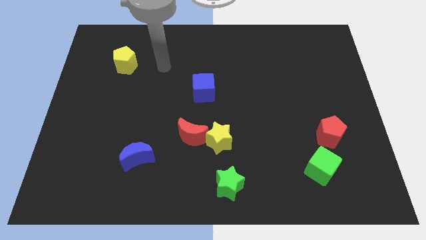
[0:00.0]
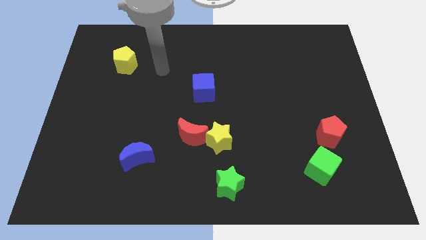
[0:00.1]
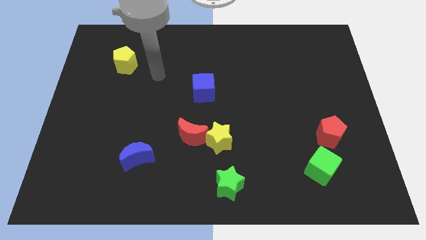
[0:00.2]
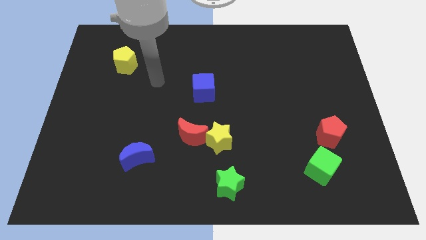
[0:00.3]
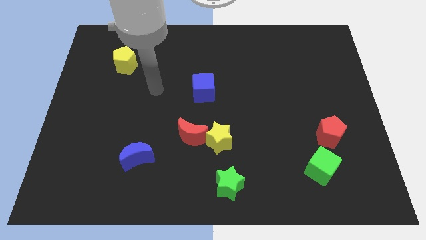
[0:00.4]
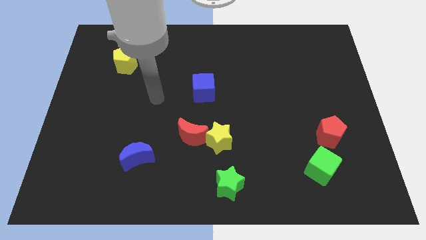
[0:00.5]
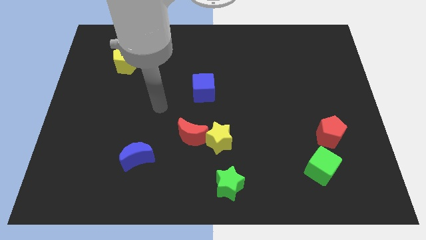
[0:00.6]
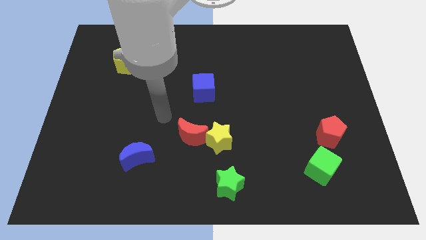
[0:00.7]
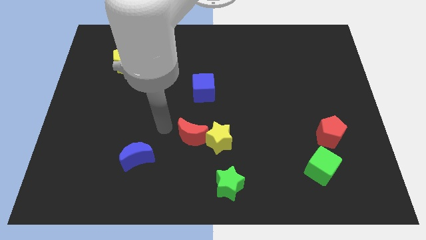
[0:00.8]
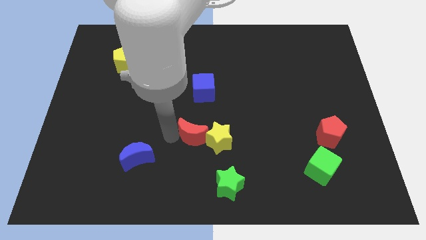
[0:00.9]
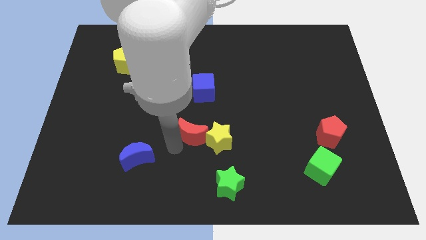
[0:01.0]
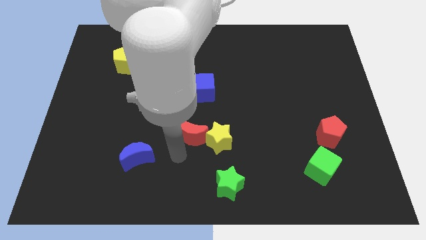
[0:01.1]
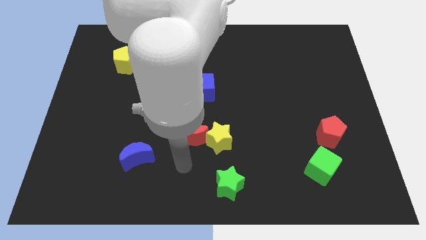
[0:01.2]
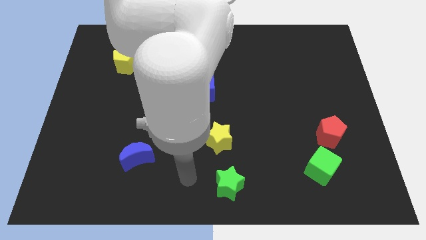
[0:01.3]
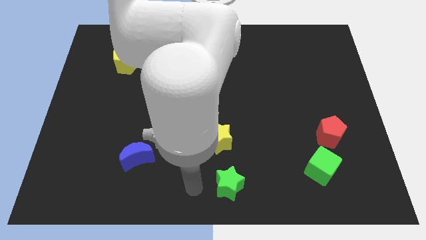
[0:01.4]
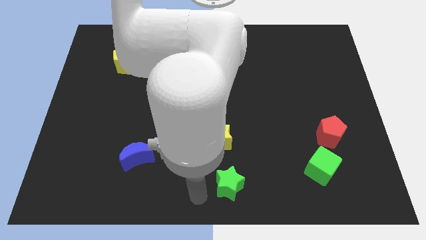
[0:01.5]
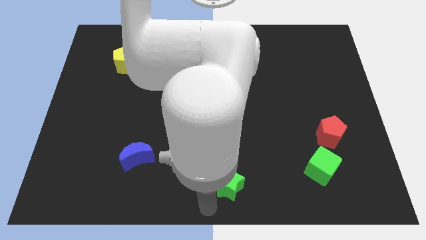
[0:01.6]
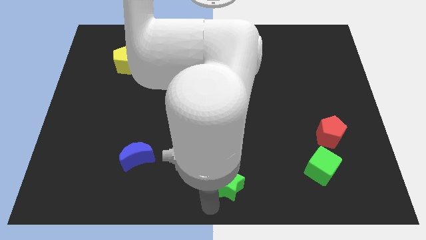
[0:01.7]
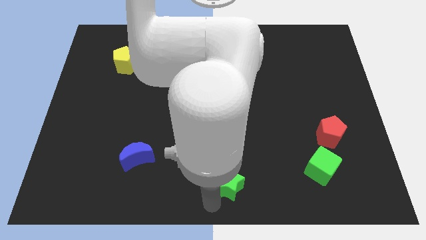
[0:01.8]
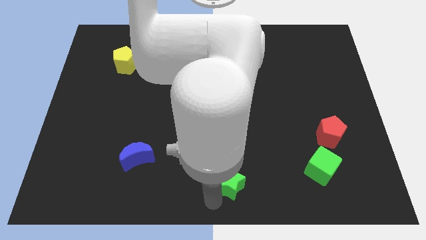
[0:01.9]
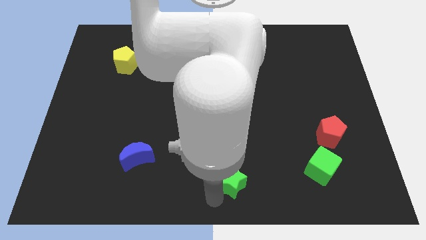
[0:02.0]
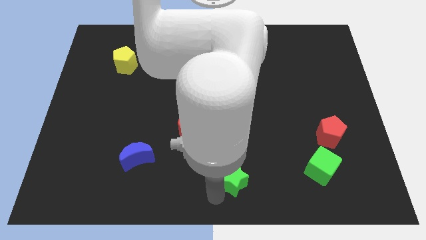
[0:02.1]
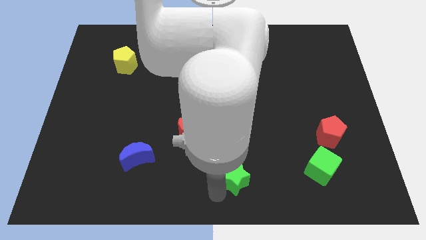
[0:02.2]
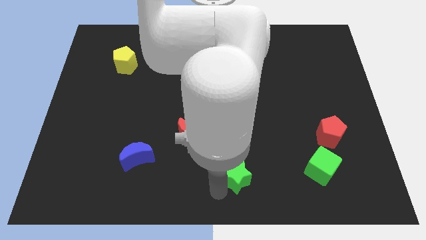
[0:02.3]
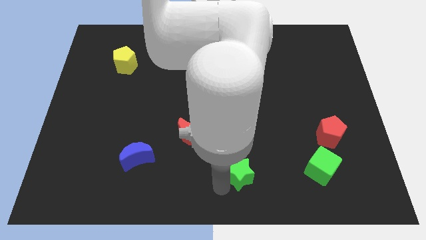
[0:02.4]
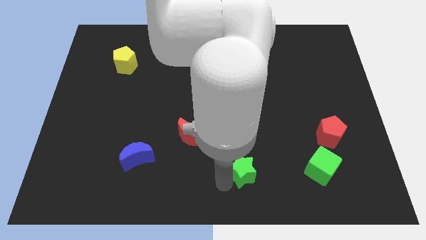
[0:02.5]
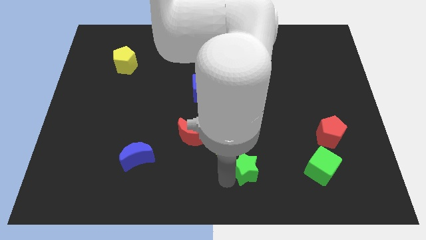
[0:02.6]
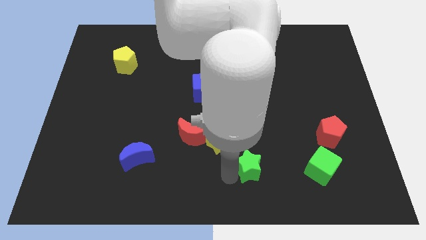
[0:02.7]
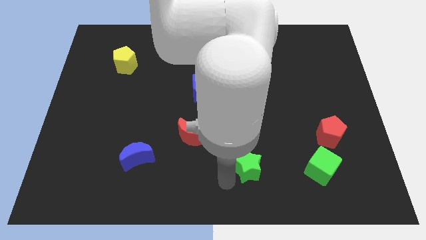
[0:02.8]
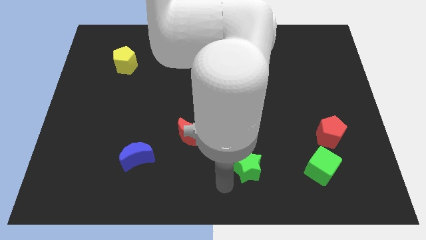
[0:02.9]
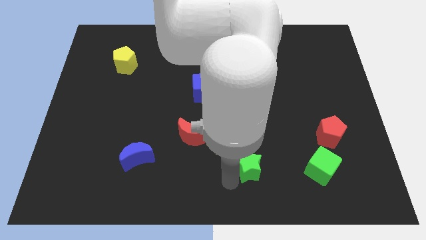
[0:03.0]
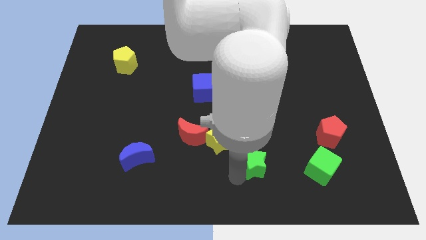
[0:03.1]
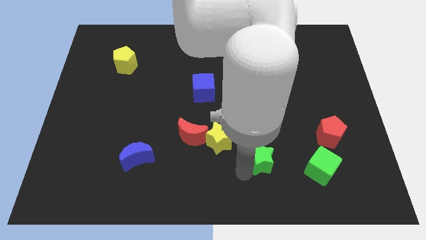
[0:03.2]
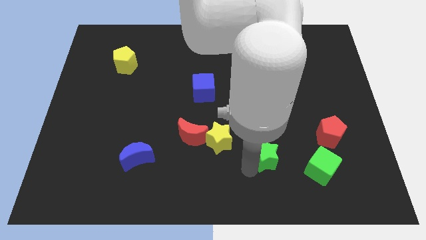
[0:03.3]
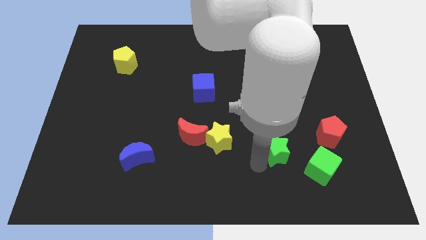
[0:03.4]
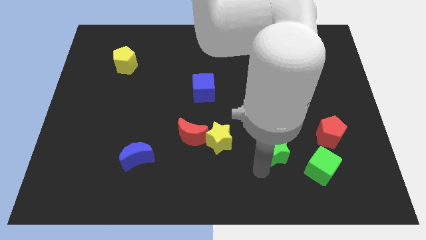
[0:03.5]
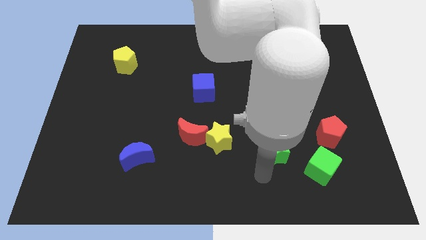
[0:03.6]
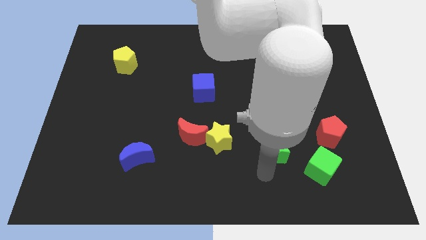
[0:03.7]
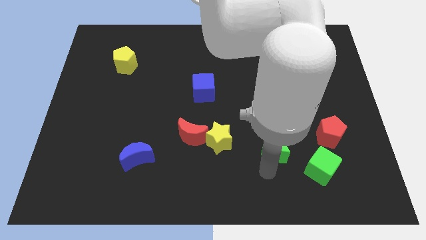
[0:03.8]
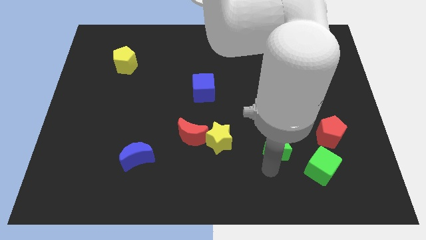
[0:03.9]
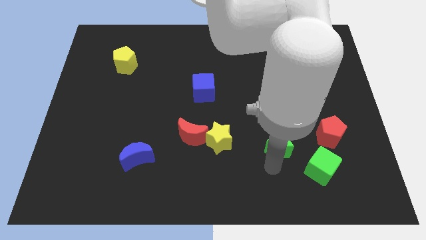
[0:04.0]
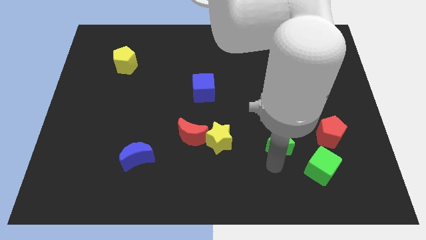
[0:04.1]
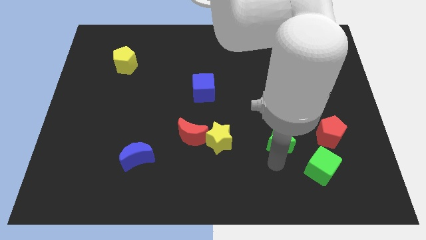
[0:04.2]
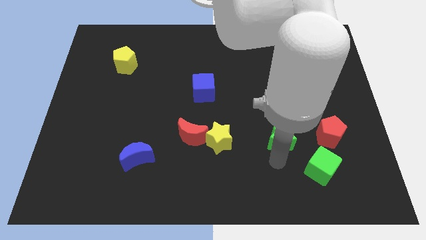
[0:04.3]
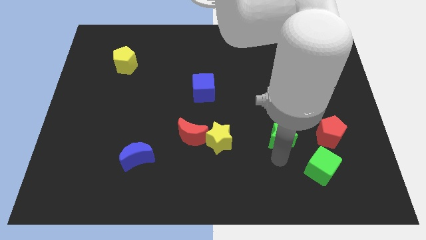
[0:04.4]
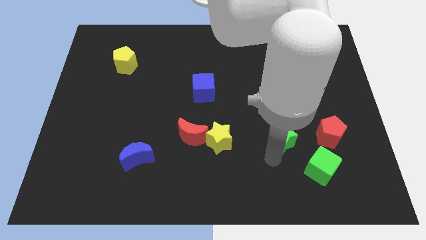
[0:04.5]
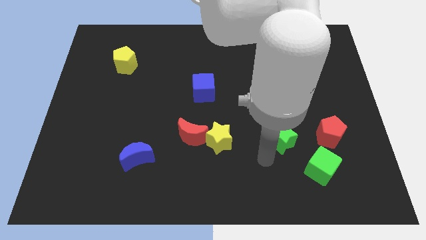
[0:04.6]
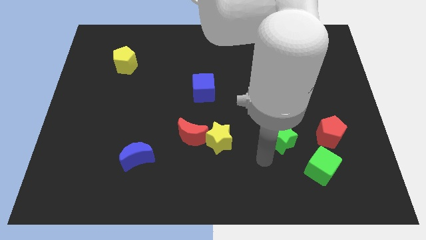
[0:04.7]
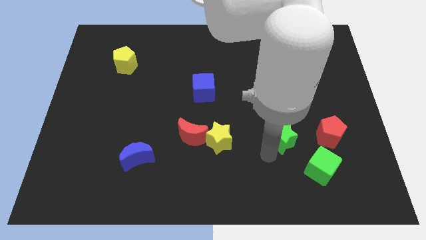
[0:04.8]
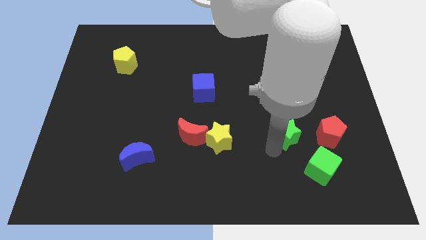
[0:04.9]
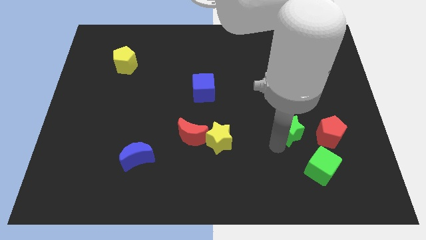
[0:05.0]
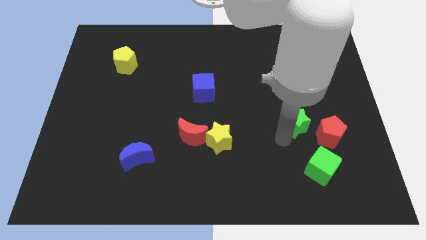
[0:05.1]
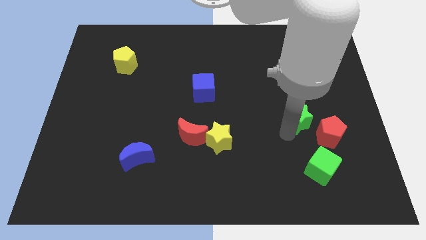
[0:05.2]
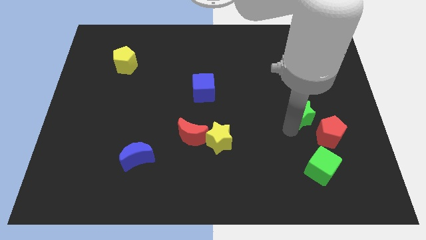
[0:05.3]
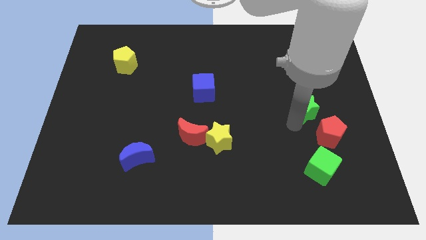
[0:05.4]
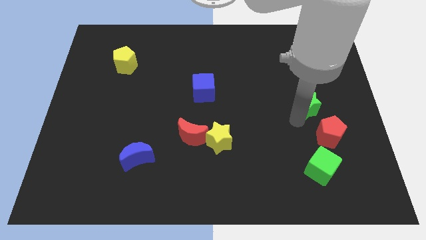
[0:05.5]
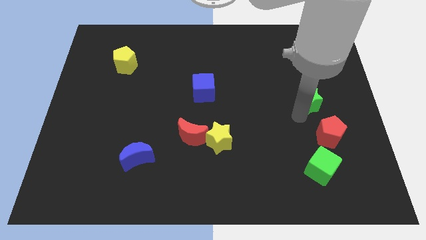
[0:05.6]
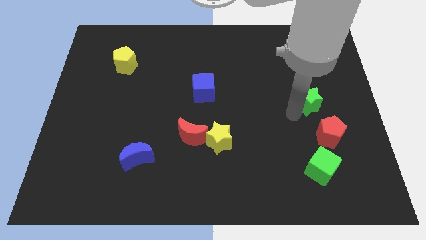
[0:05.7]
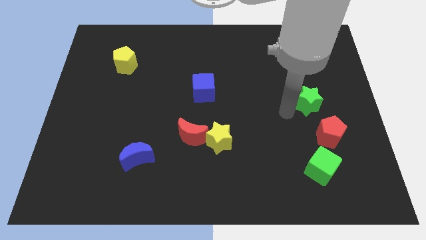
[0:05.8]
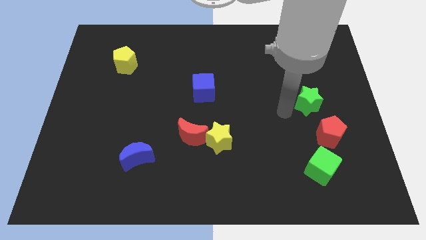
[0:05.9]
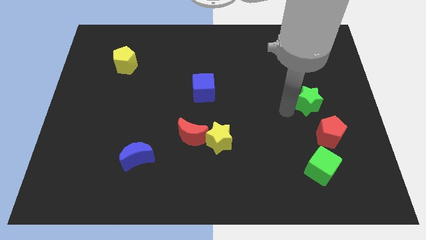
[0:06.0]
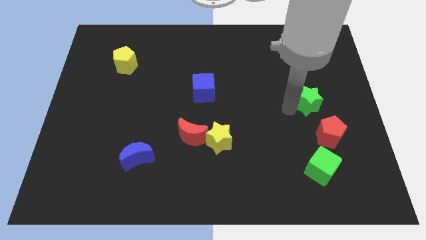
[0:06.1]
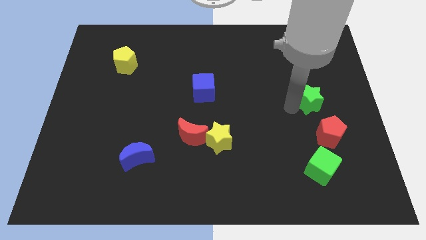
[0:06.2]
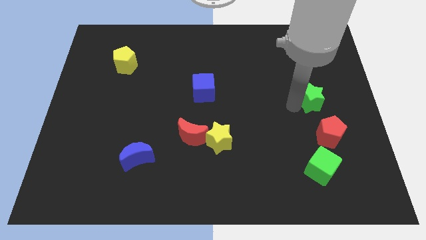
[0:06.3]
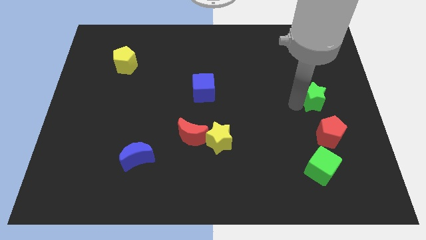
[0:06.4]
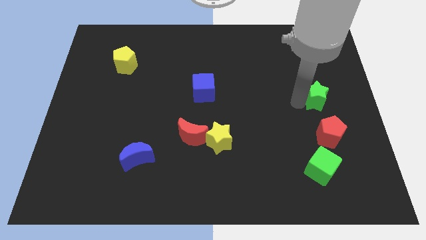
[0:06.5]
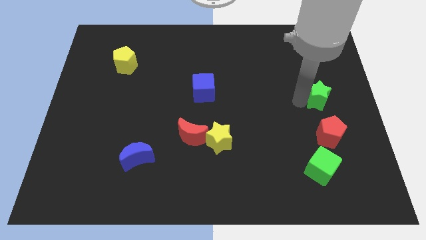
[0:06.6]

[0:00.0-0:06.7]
put the green star to the right side

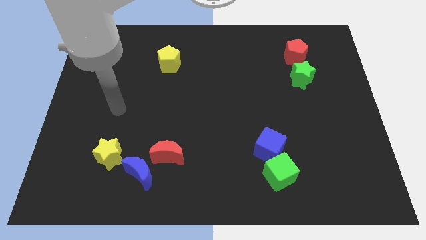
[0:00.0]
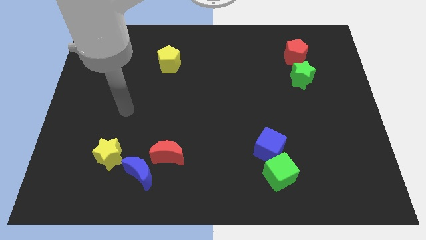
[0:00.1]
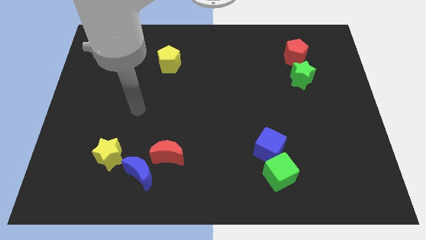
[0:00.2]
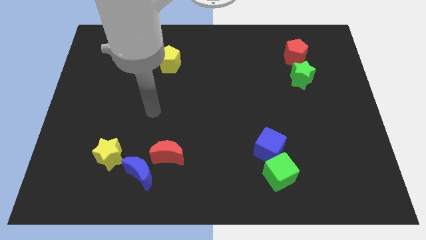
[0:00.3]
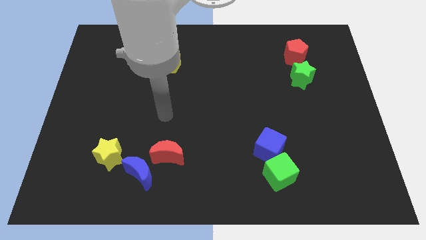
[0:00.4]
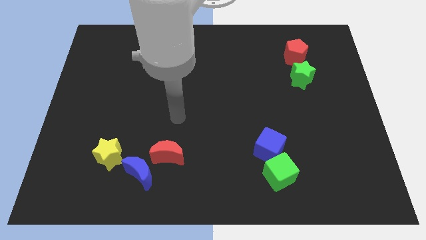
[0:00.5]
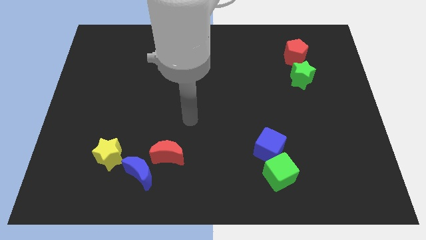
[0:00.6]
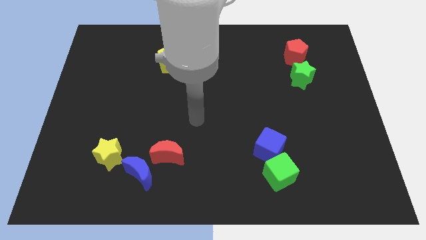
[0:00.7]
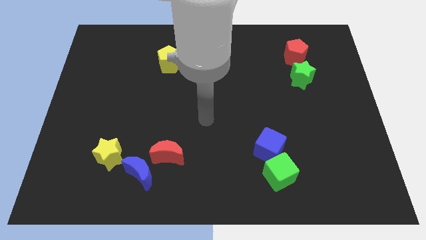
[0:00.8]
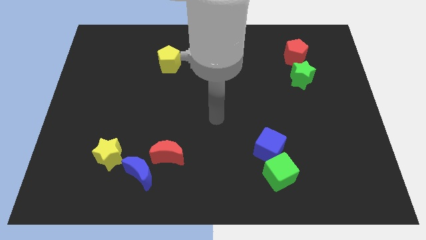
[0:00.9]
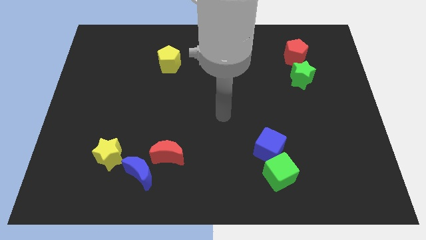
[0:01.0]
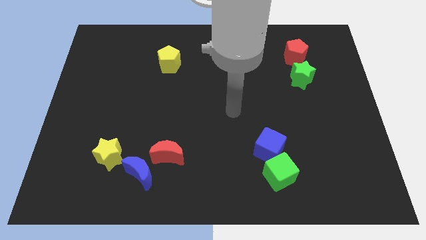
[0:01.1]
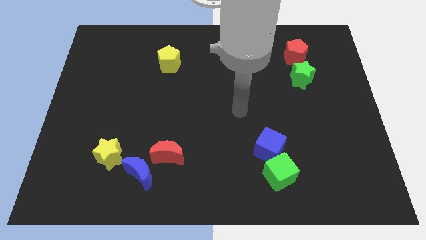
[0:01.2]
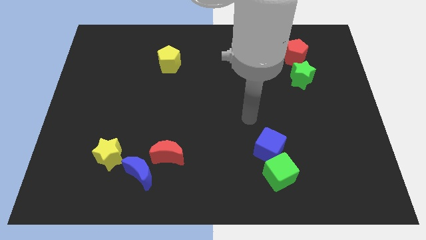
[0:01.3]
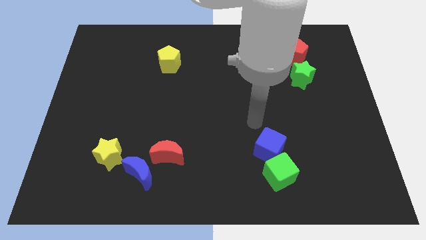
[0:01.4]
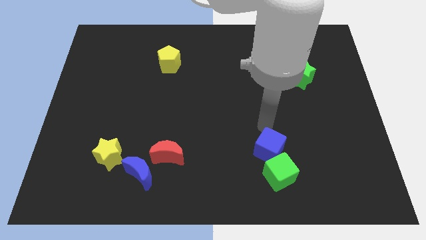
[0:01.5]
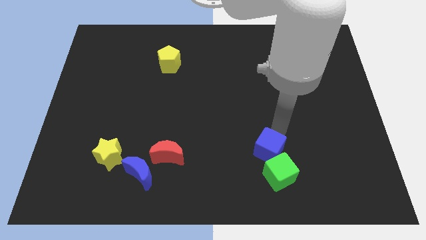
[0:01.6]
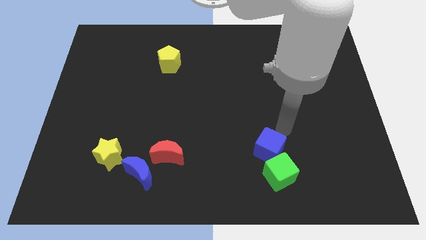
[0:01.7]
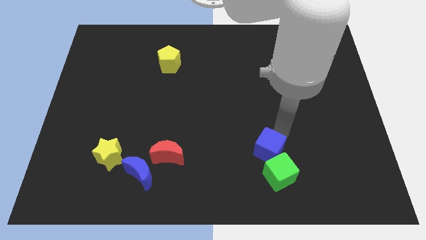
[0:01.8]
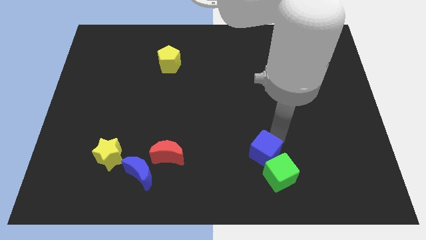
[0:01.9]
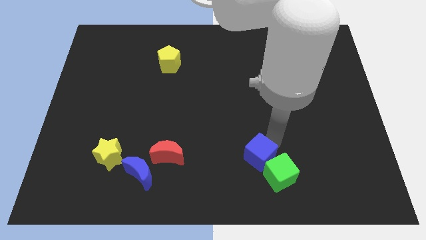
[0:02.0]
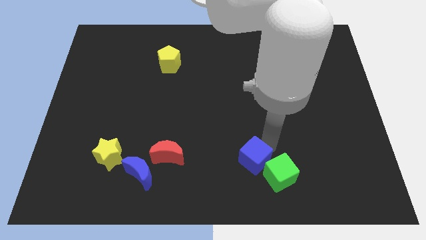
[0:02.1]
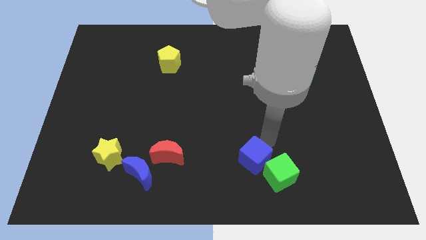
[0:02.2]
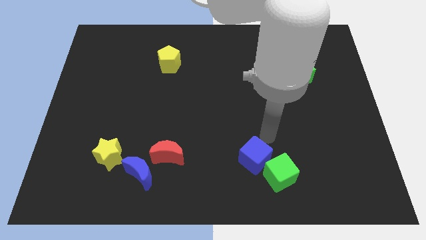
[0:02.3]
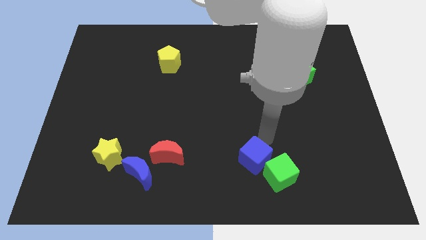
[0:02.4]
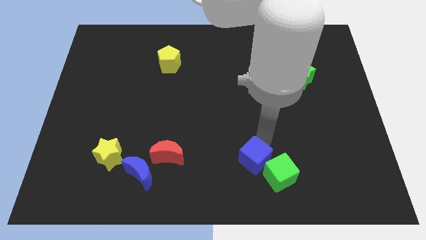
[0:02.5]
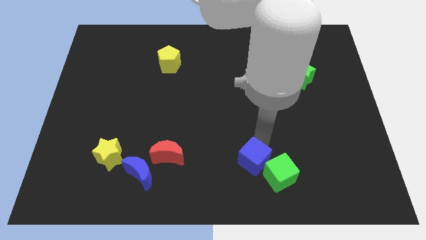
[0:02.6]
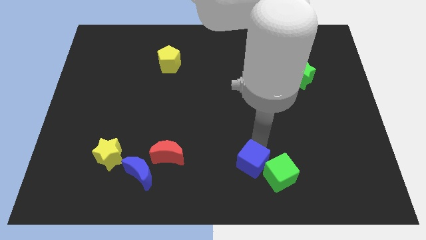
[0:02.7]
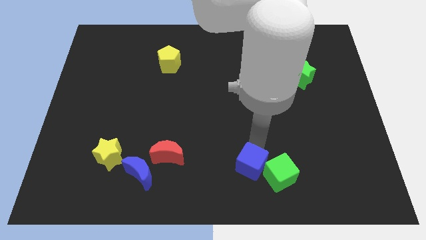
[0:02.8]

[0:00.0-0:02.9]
move the blue cube to the bottom side
